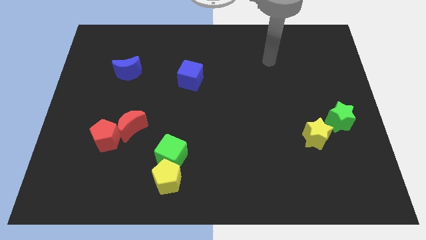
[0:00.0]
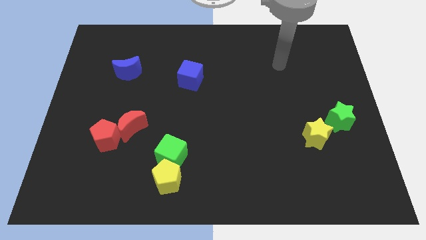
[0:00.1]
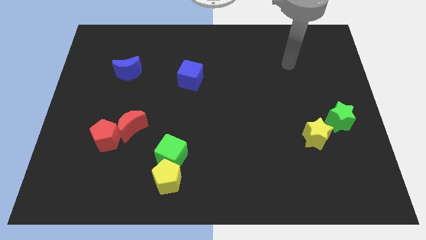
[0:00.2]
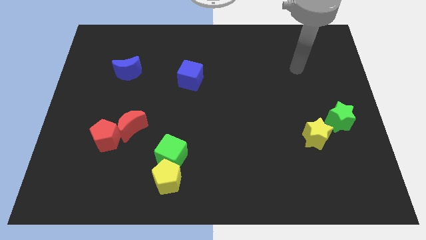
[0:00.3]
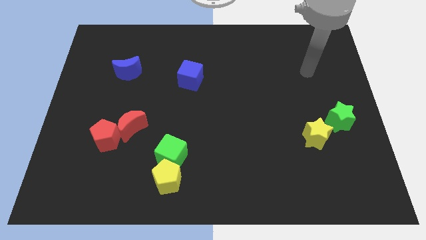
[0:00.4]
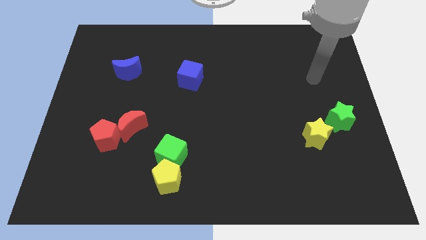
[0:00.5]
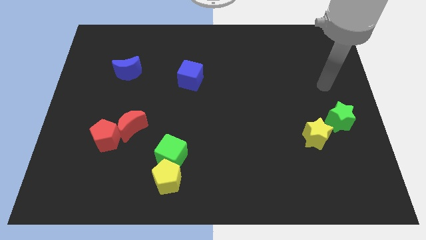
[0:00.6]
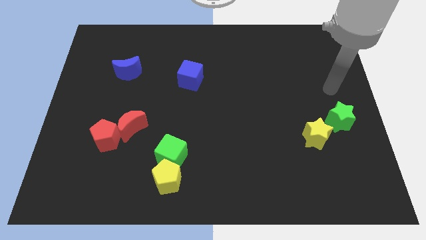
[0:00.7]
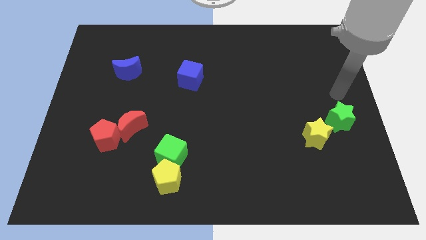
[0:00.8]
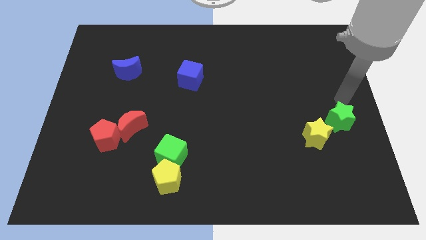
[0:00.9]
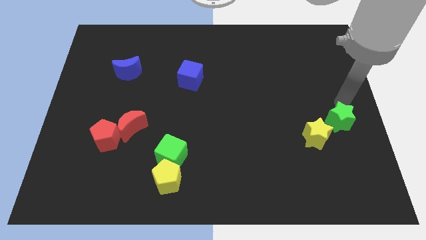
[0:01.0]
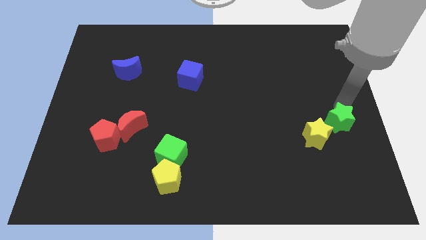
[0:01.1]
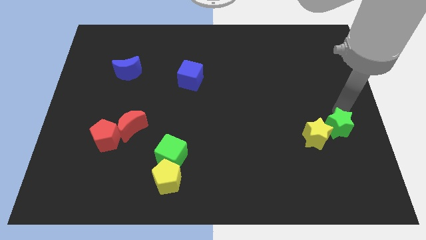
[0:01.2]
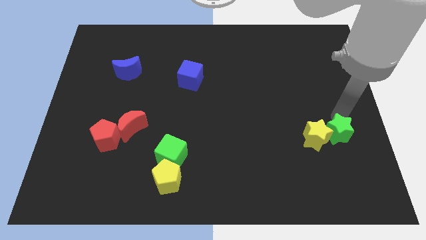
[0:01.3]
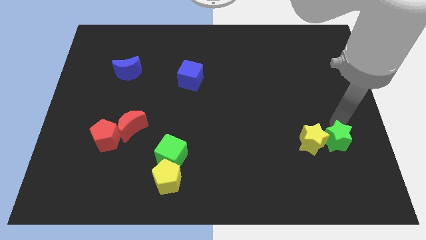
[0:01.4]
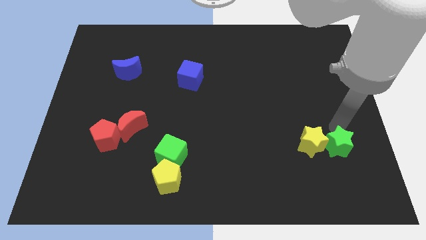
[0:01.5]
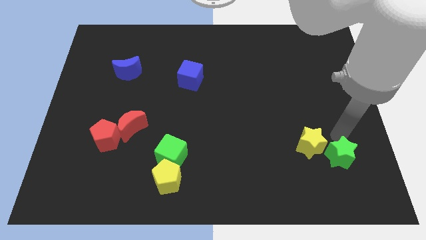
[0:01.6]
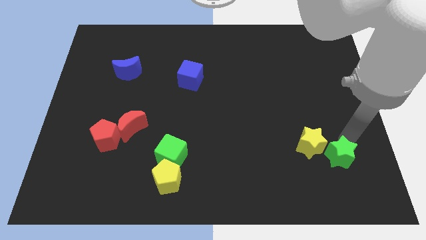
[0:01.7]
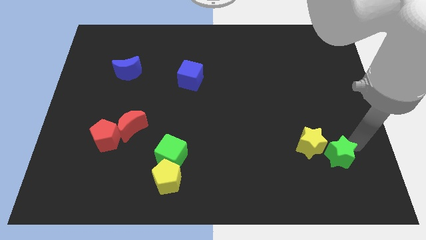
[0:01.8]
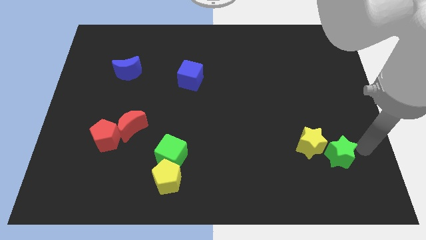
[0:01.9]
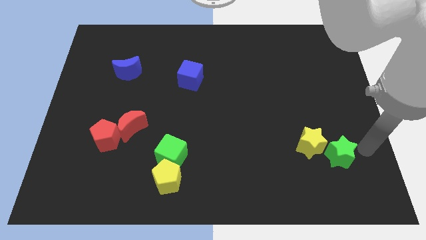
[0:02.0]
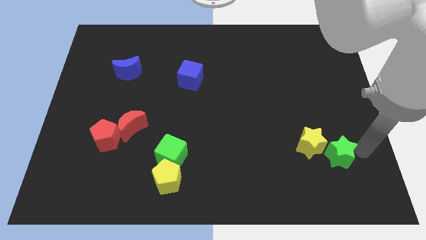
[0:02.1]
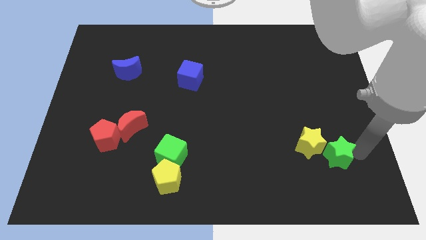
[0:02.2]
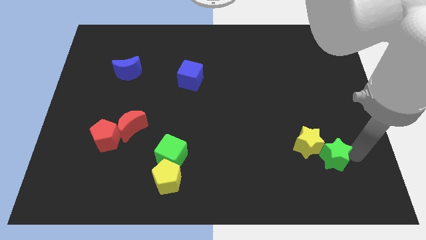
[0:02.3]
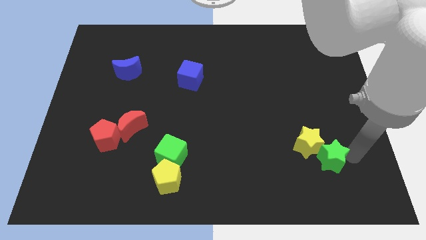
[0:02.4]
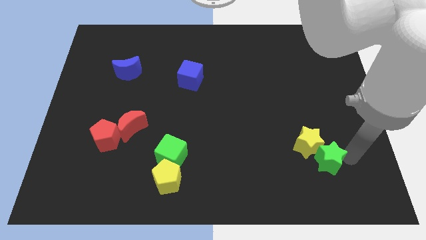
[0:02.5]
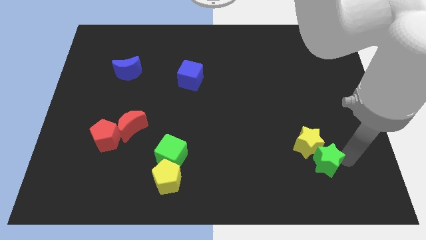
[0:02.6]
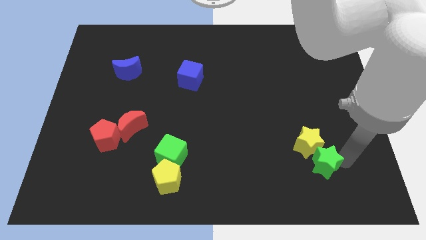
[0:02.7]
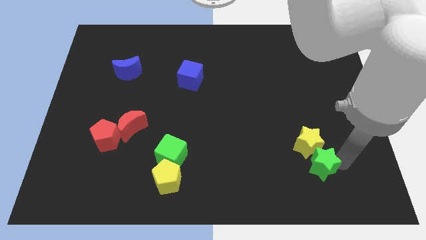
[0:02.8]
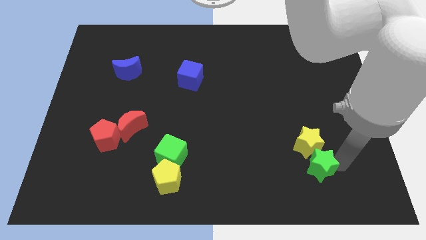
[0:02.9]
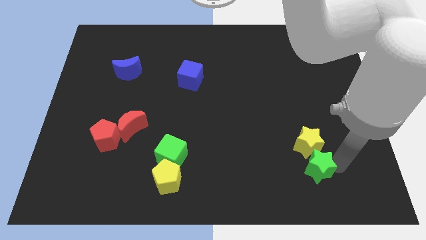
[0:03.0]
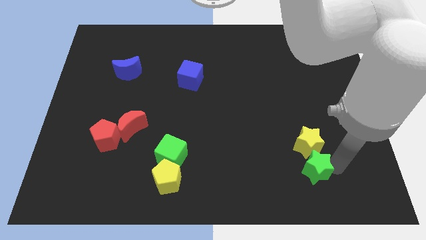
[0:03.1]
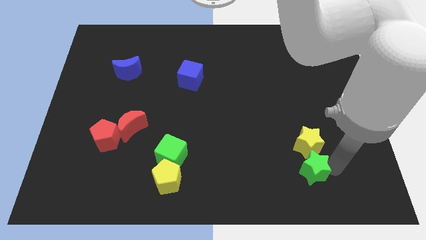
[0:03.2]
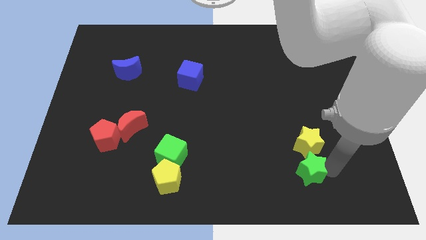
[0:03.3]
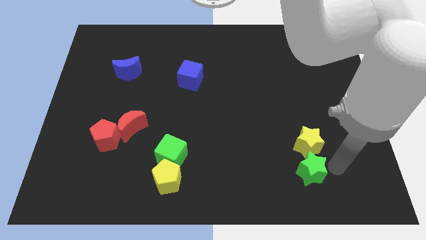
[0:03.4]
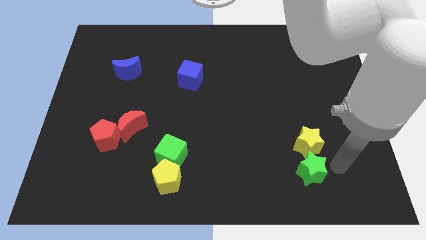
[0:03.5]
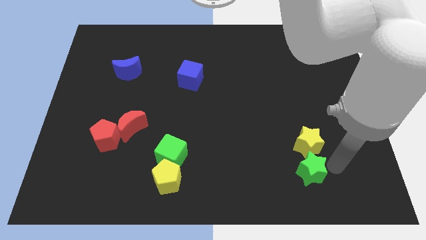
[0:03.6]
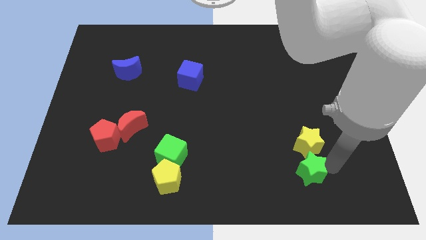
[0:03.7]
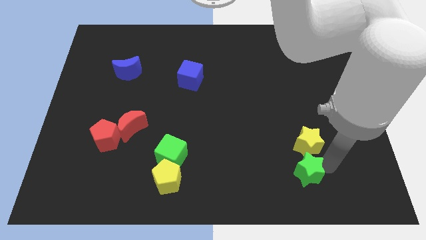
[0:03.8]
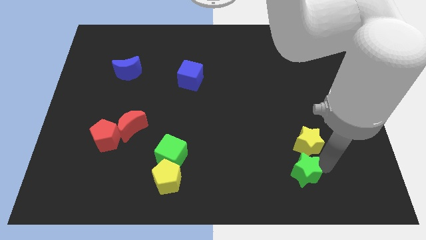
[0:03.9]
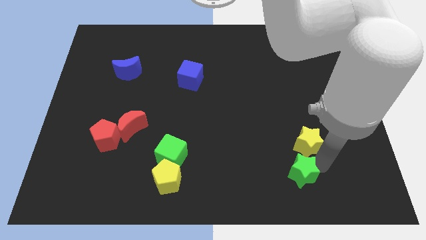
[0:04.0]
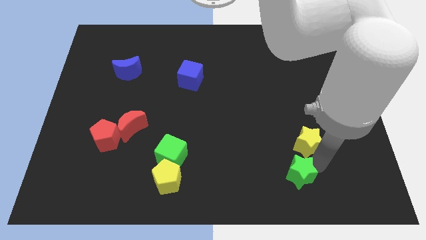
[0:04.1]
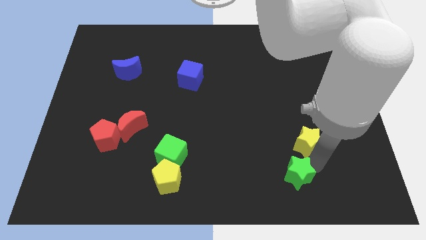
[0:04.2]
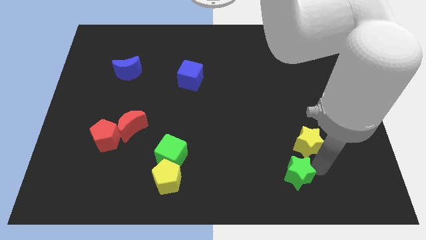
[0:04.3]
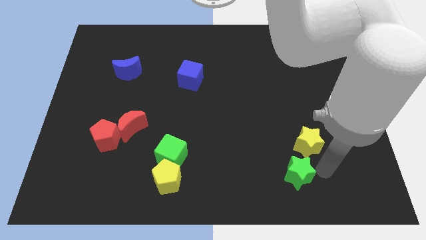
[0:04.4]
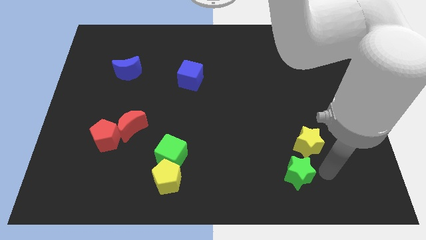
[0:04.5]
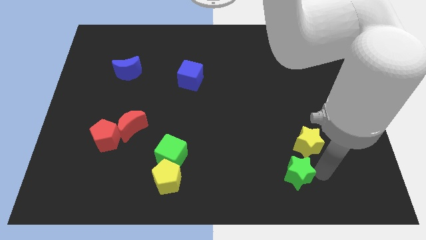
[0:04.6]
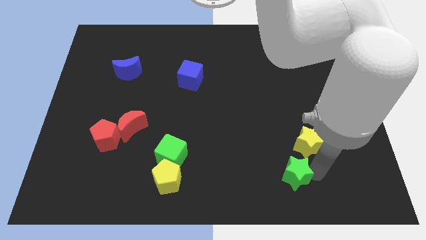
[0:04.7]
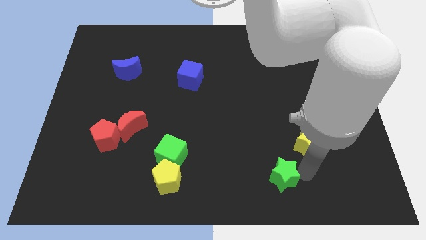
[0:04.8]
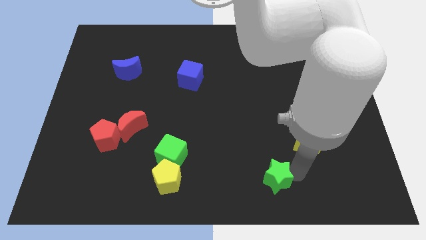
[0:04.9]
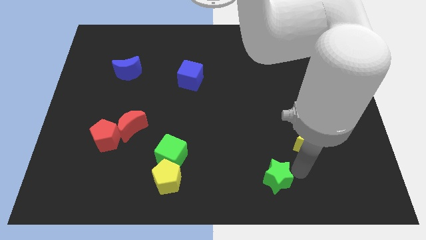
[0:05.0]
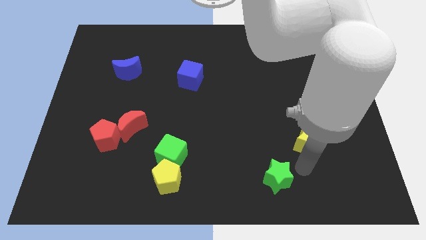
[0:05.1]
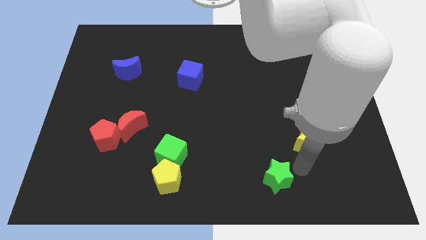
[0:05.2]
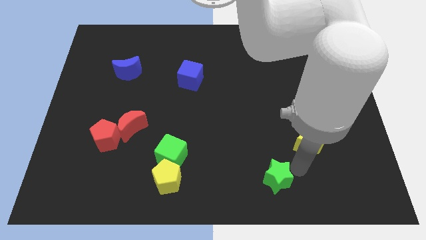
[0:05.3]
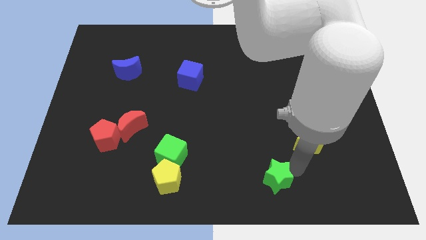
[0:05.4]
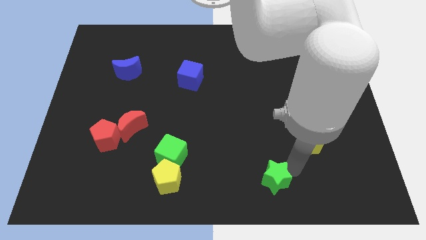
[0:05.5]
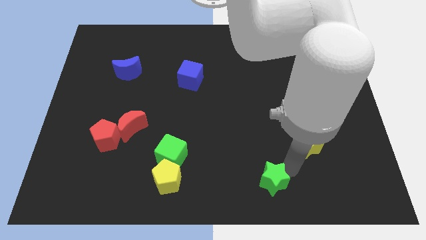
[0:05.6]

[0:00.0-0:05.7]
slide the green star to the bottom side

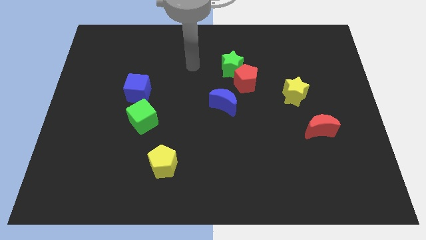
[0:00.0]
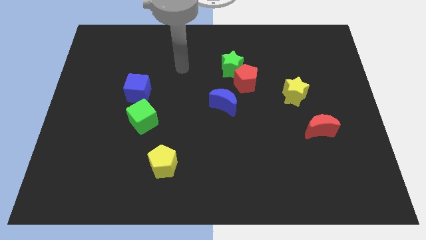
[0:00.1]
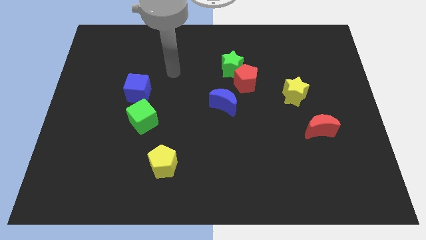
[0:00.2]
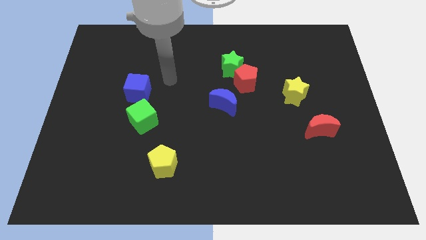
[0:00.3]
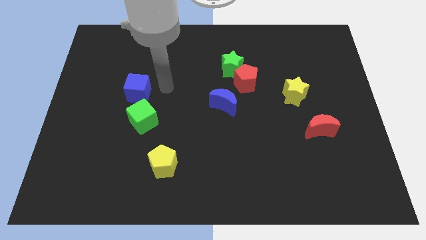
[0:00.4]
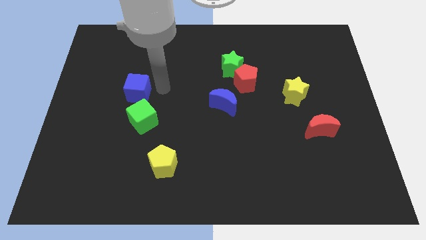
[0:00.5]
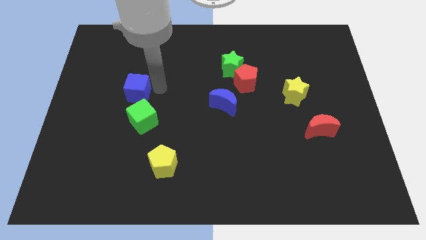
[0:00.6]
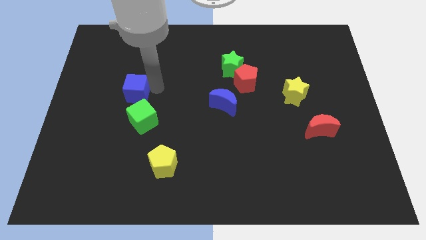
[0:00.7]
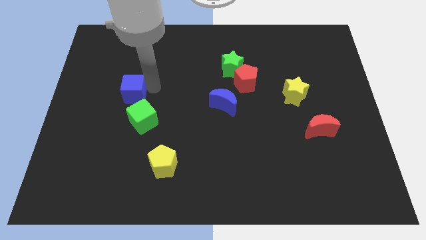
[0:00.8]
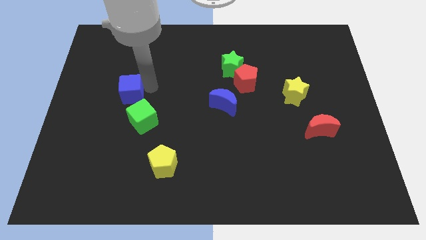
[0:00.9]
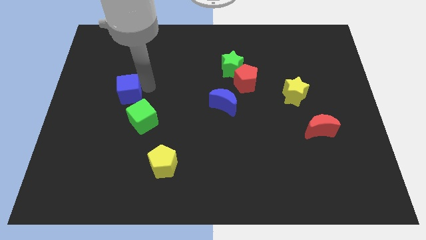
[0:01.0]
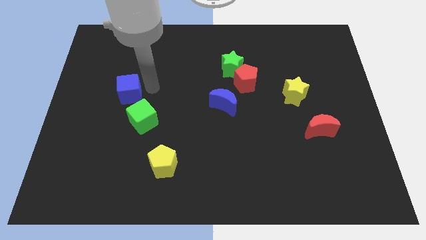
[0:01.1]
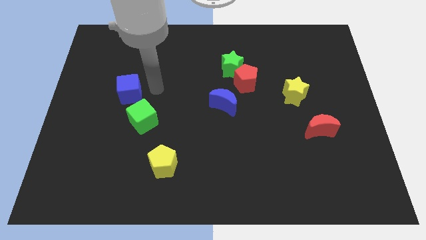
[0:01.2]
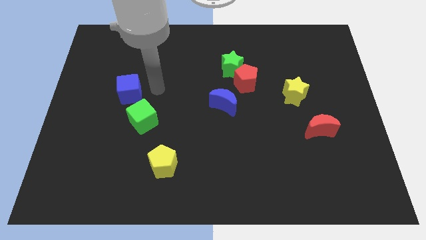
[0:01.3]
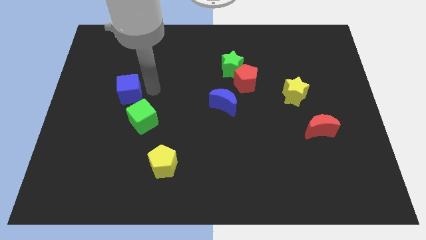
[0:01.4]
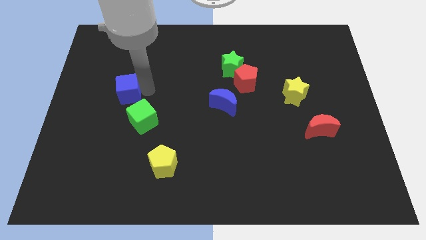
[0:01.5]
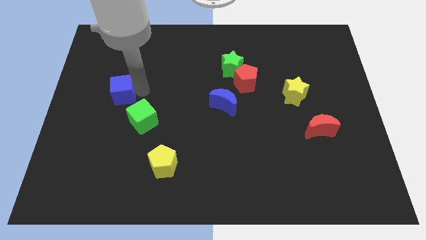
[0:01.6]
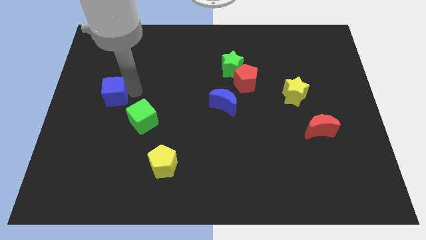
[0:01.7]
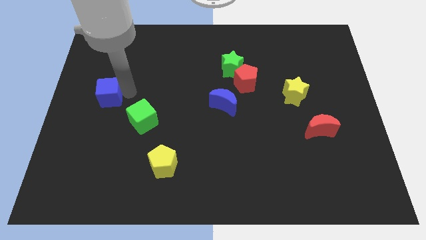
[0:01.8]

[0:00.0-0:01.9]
push the blue cube to the left side
